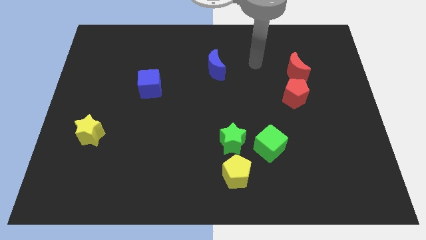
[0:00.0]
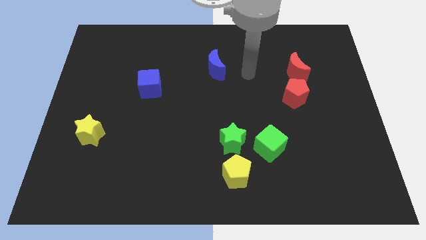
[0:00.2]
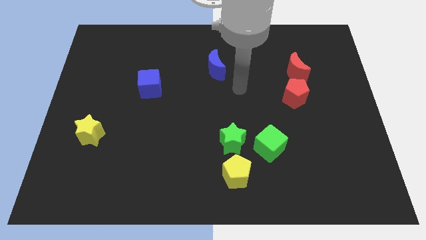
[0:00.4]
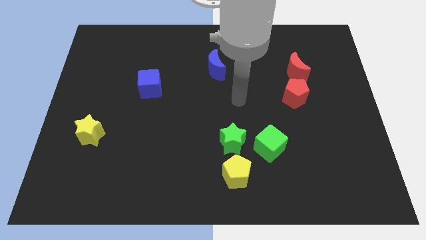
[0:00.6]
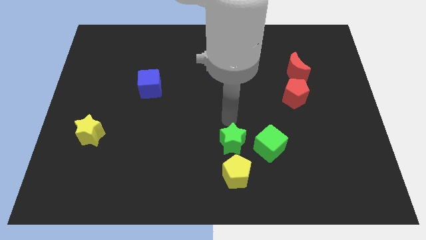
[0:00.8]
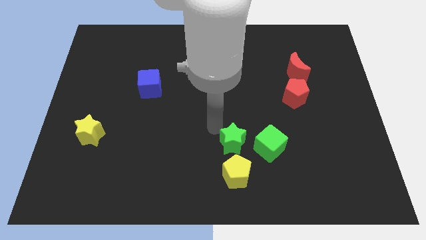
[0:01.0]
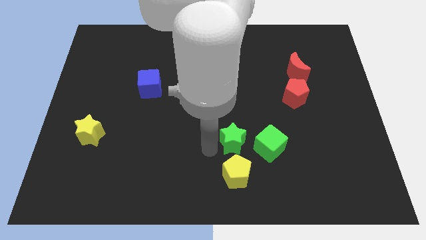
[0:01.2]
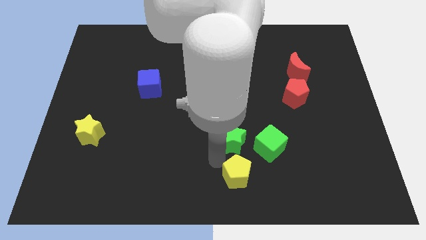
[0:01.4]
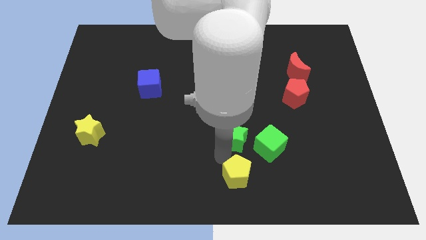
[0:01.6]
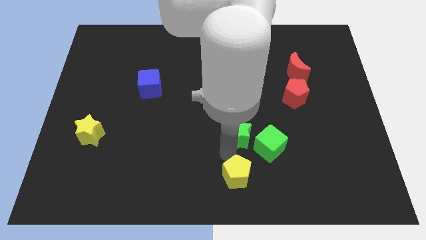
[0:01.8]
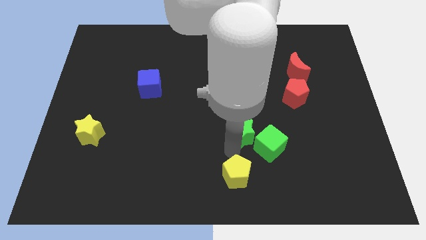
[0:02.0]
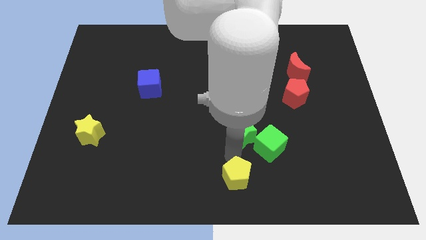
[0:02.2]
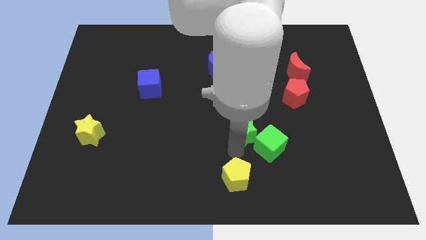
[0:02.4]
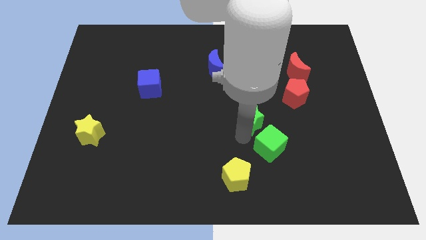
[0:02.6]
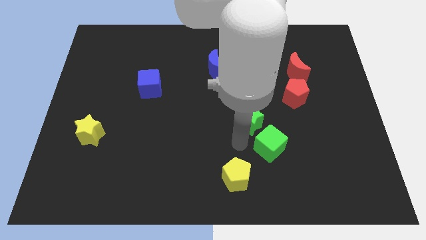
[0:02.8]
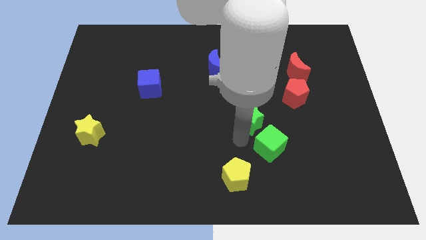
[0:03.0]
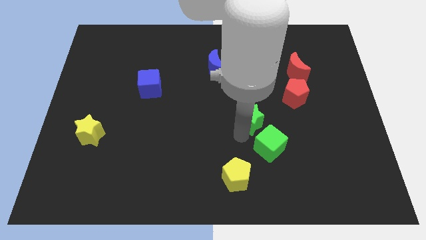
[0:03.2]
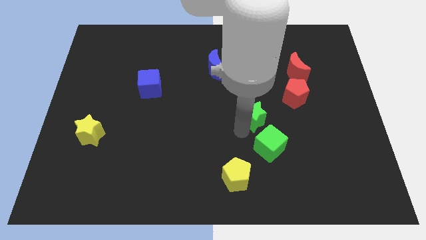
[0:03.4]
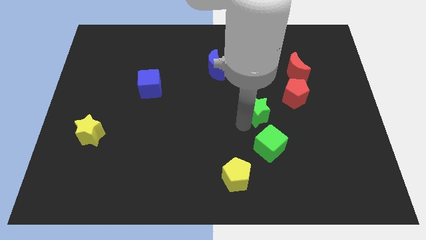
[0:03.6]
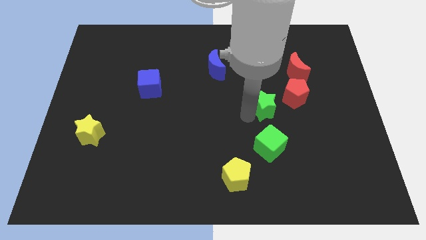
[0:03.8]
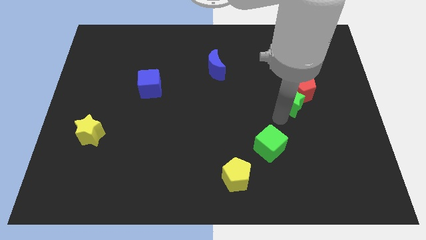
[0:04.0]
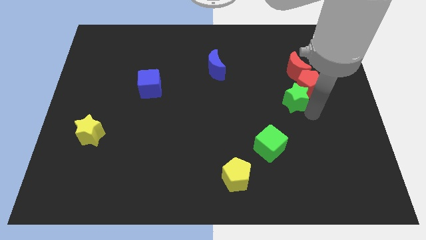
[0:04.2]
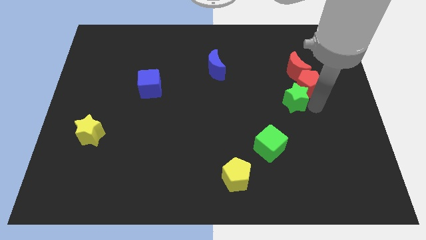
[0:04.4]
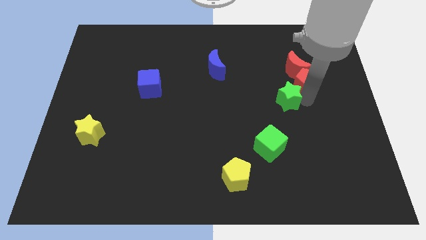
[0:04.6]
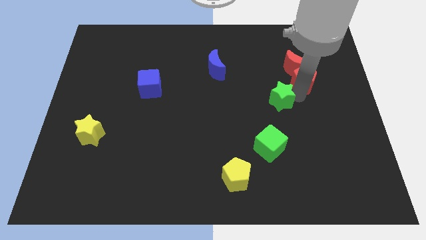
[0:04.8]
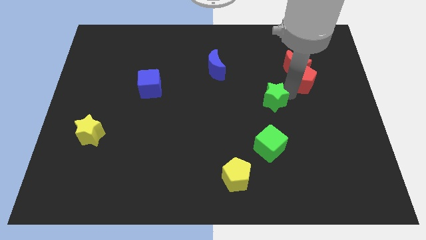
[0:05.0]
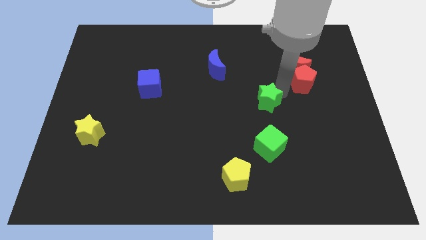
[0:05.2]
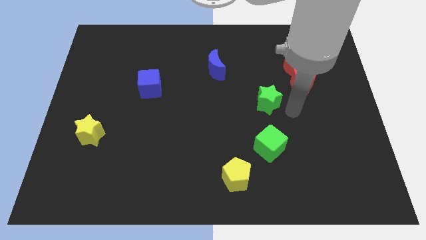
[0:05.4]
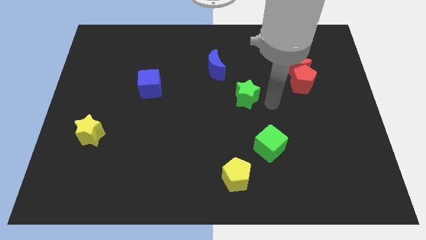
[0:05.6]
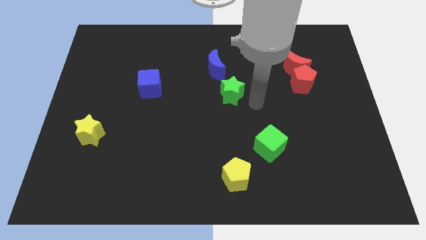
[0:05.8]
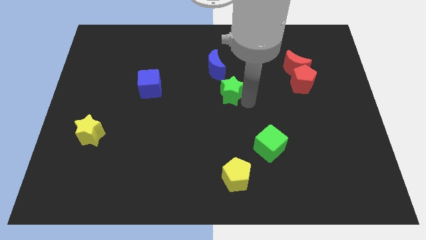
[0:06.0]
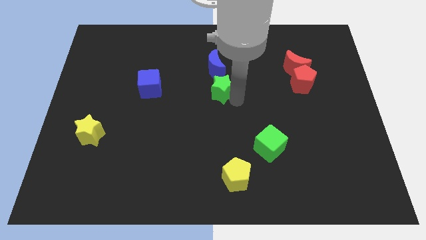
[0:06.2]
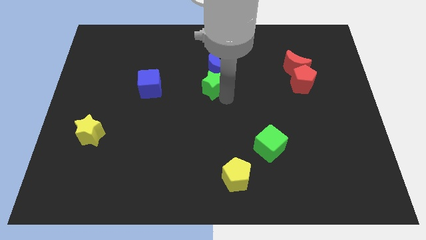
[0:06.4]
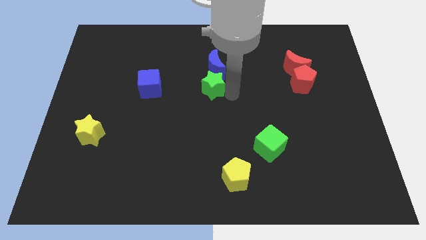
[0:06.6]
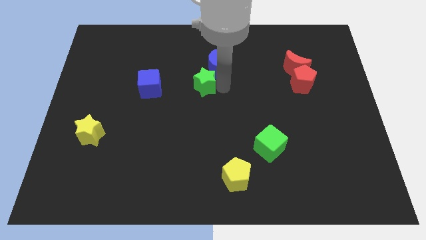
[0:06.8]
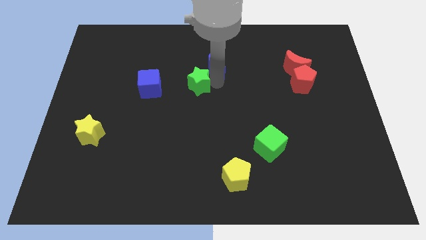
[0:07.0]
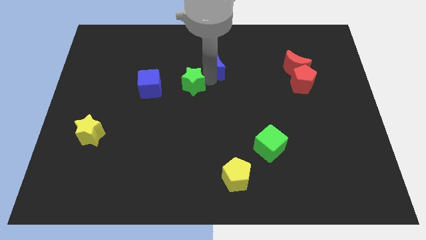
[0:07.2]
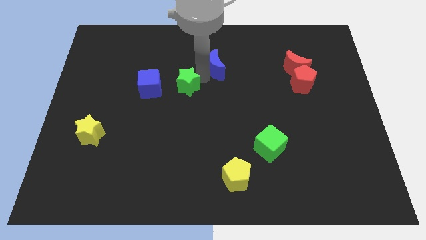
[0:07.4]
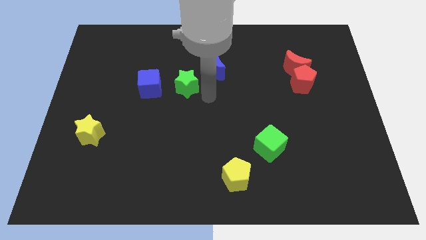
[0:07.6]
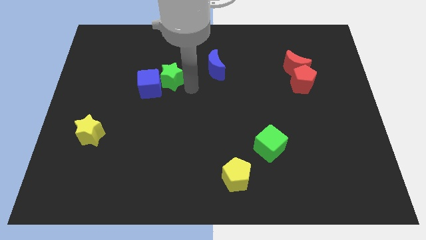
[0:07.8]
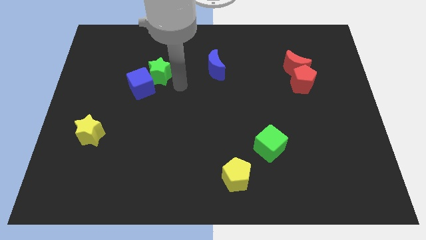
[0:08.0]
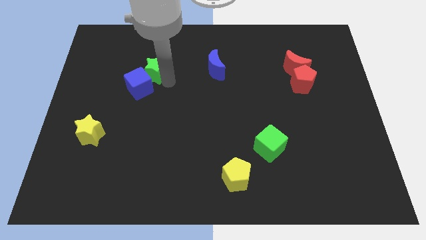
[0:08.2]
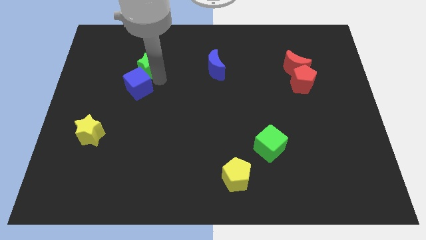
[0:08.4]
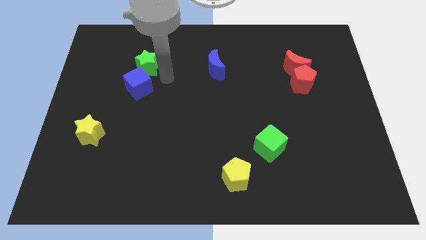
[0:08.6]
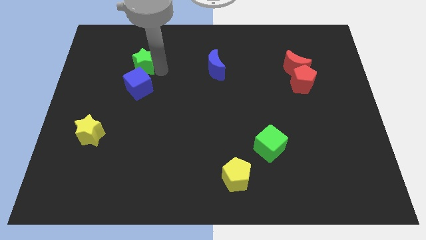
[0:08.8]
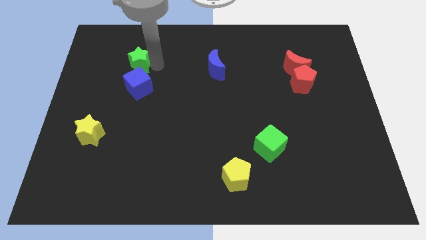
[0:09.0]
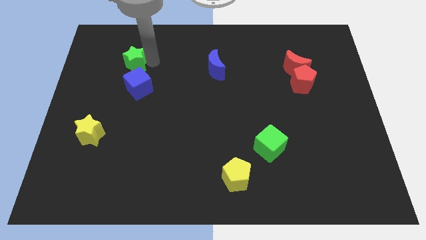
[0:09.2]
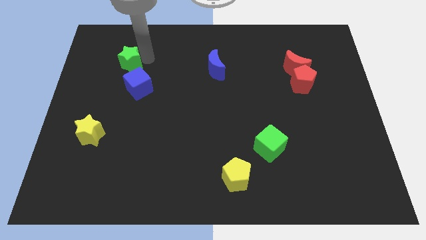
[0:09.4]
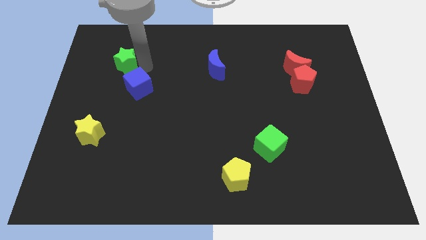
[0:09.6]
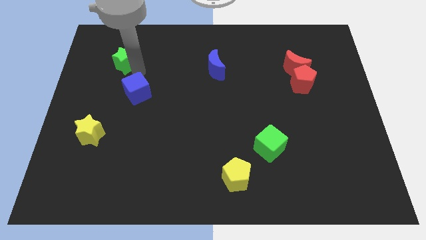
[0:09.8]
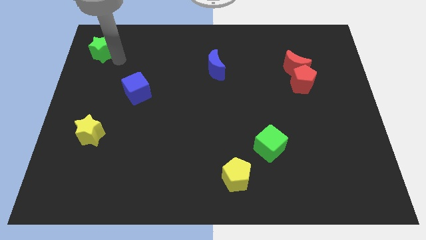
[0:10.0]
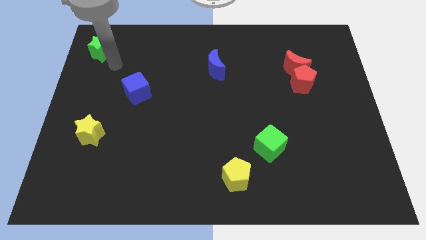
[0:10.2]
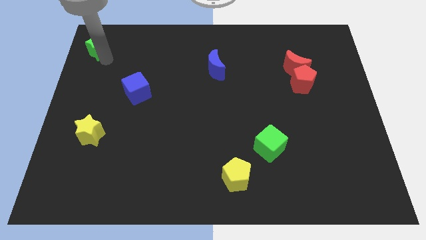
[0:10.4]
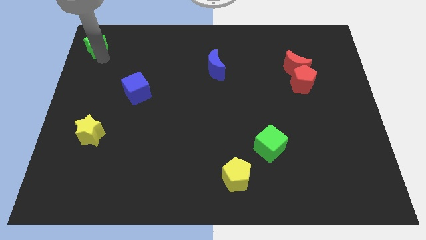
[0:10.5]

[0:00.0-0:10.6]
move the green star to the upper left corner

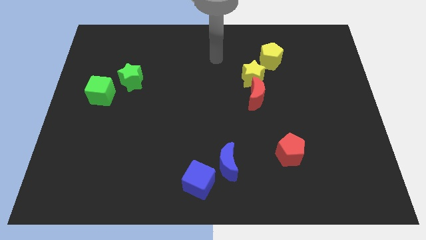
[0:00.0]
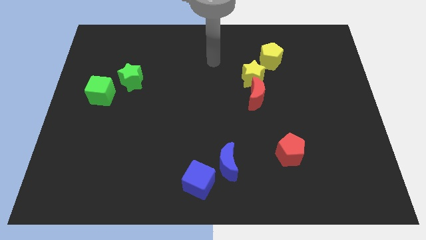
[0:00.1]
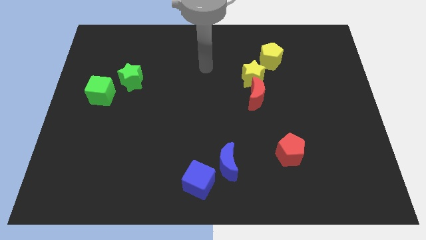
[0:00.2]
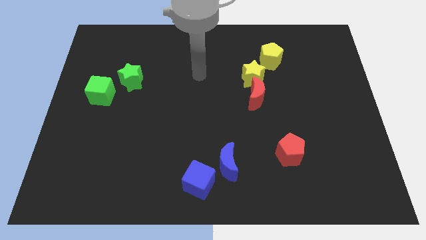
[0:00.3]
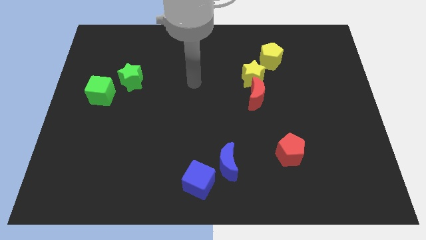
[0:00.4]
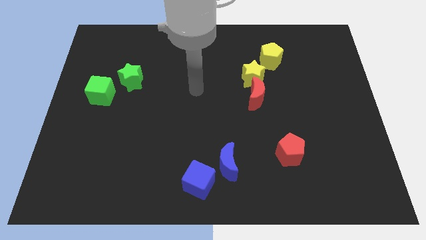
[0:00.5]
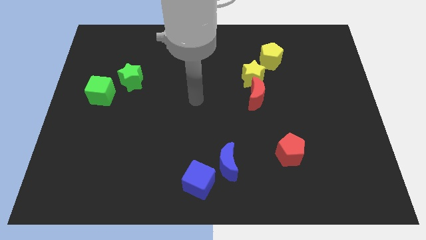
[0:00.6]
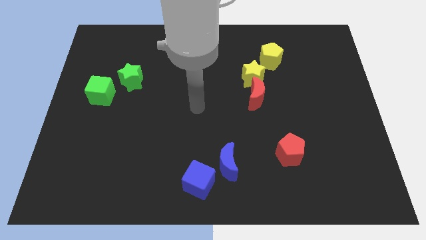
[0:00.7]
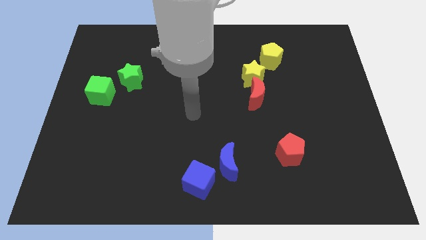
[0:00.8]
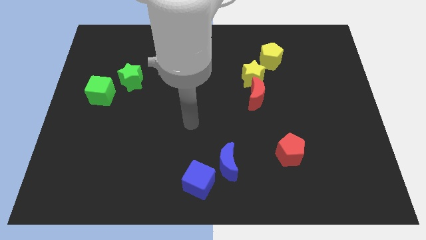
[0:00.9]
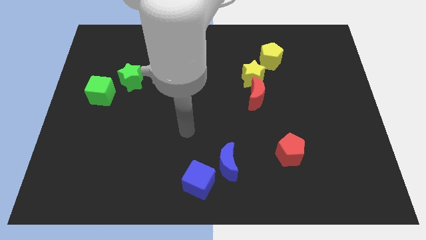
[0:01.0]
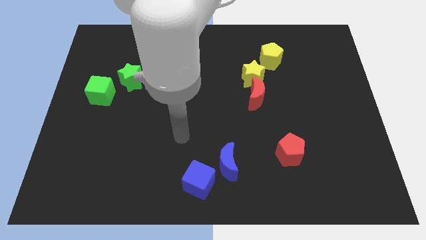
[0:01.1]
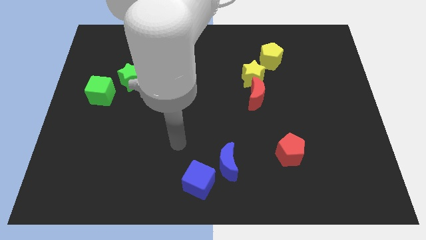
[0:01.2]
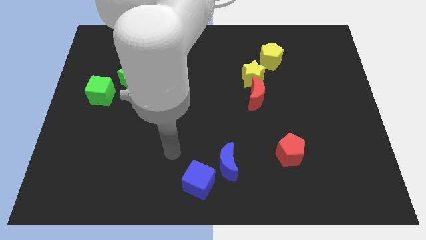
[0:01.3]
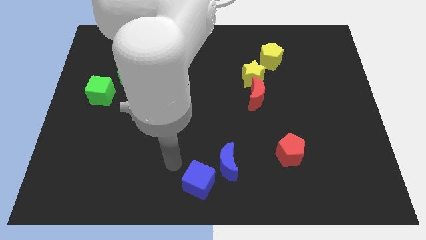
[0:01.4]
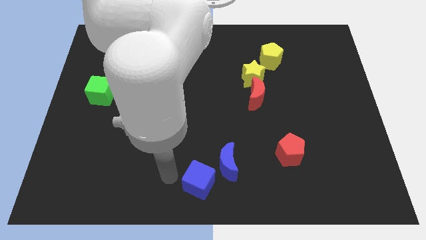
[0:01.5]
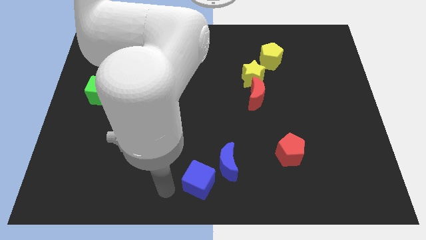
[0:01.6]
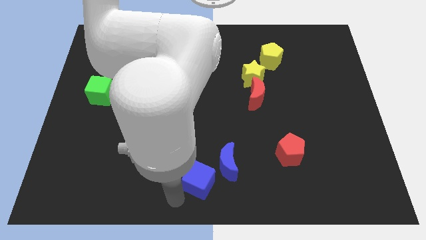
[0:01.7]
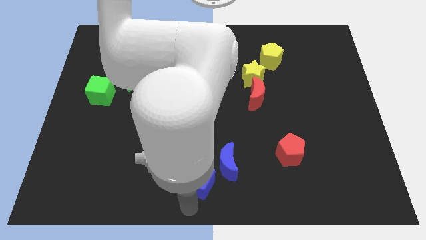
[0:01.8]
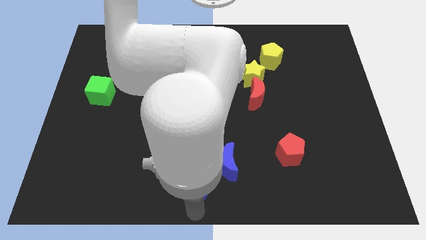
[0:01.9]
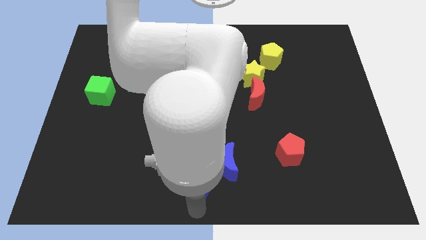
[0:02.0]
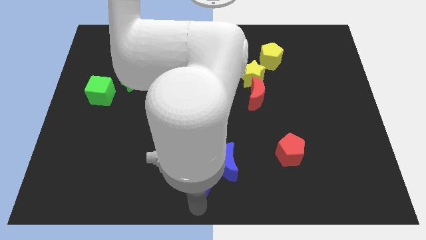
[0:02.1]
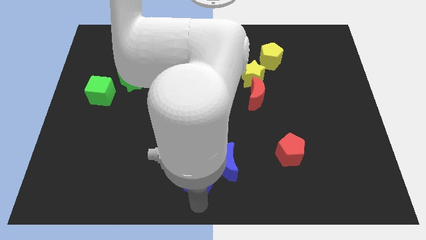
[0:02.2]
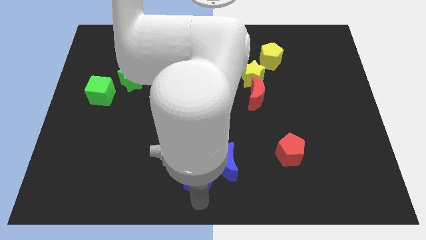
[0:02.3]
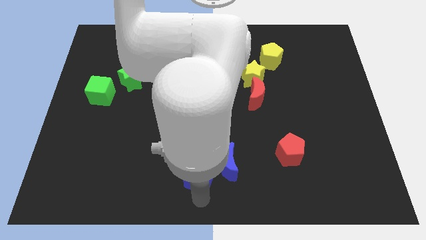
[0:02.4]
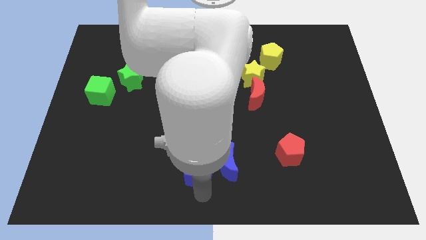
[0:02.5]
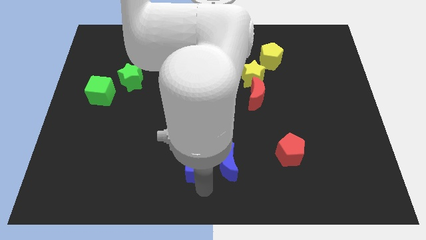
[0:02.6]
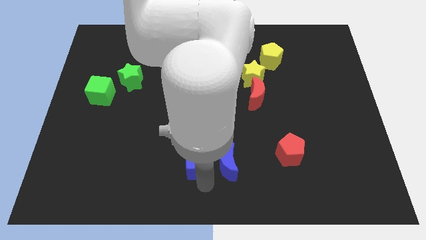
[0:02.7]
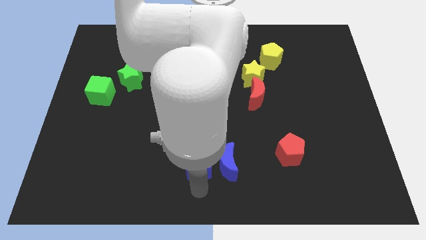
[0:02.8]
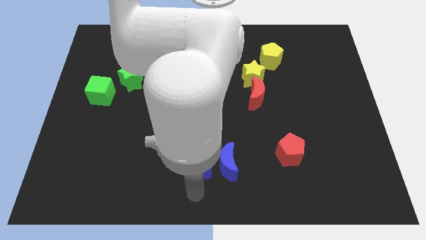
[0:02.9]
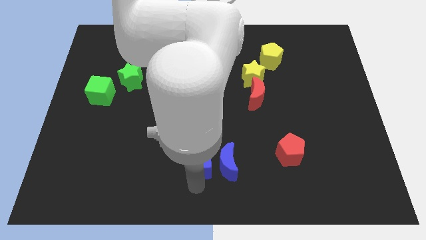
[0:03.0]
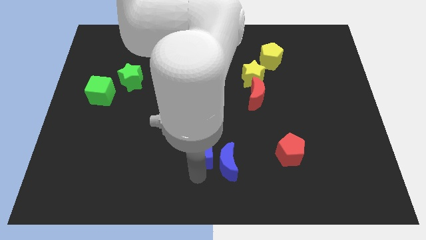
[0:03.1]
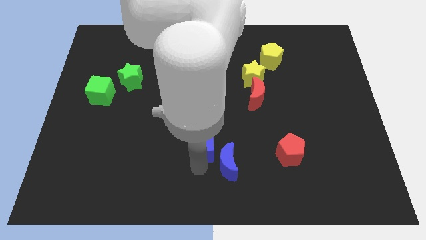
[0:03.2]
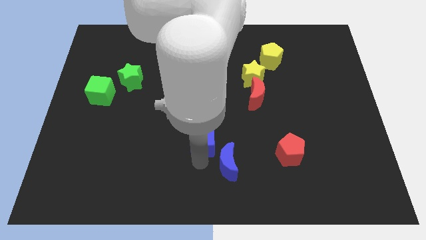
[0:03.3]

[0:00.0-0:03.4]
move the blue cube to the center of the board
